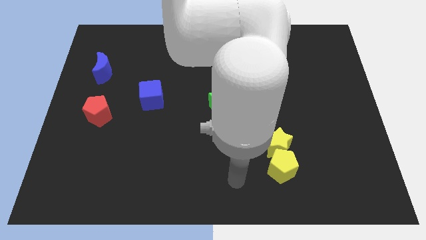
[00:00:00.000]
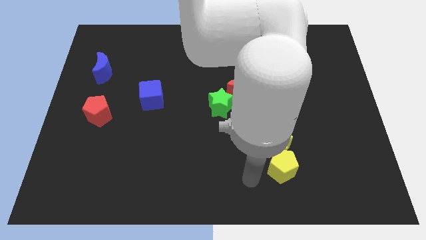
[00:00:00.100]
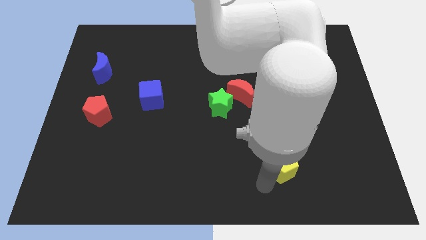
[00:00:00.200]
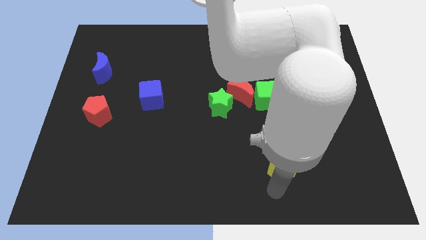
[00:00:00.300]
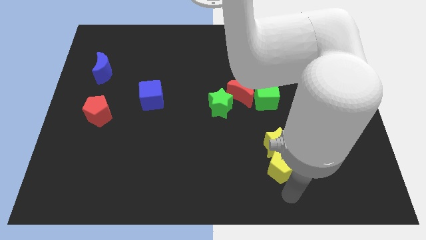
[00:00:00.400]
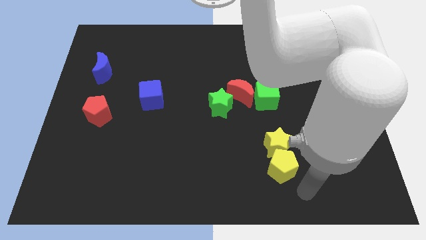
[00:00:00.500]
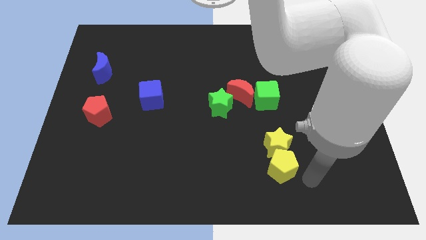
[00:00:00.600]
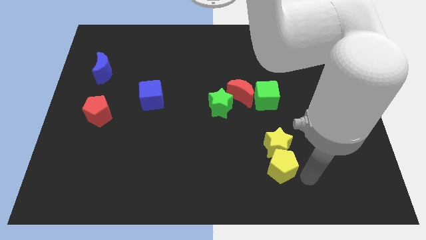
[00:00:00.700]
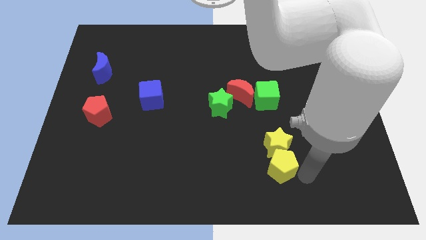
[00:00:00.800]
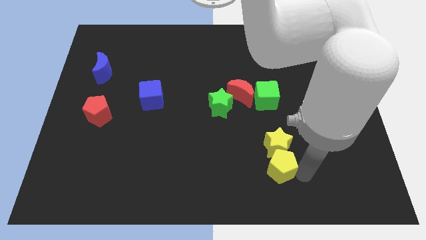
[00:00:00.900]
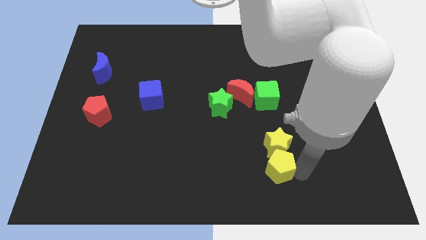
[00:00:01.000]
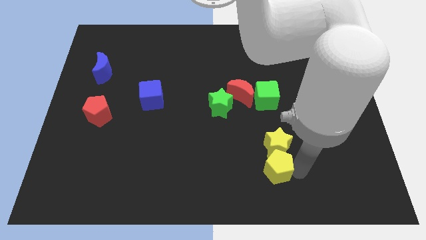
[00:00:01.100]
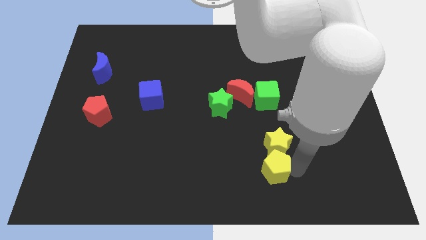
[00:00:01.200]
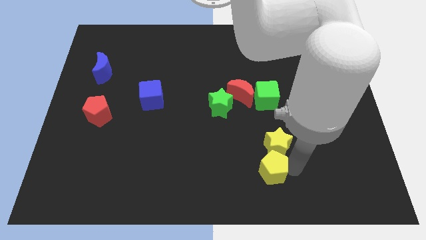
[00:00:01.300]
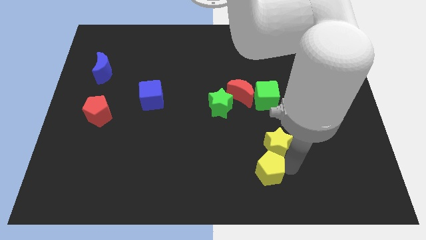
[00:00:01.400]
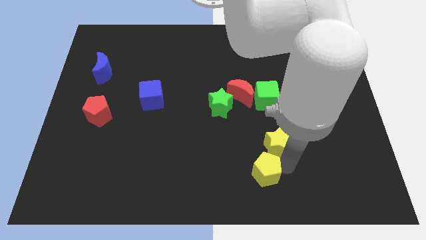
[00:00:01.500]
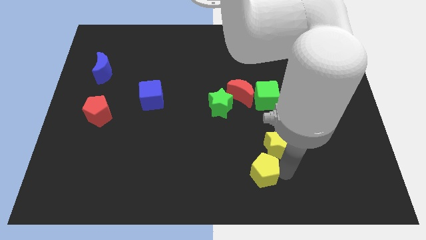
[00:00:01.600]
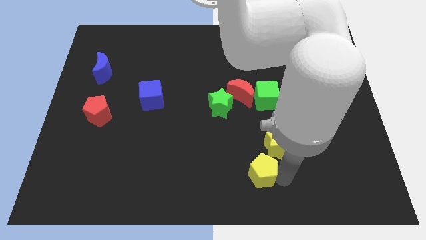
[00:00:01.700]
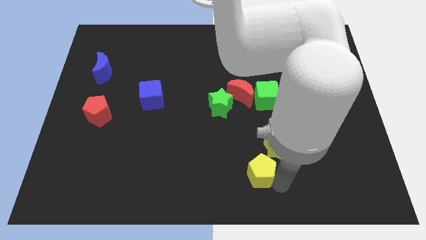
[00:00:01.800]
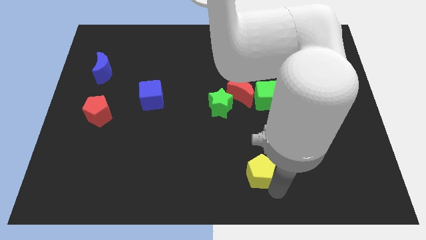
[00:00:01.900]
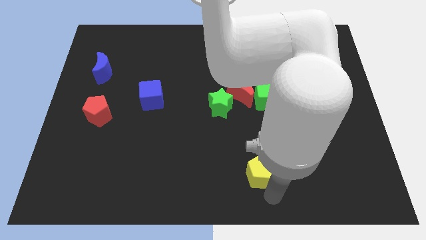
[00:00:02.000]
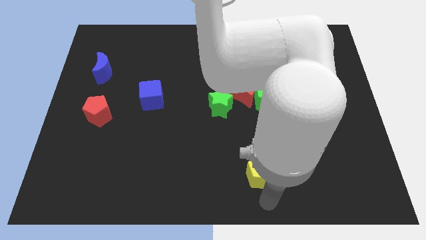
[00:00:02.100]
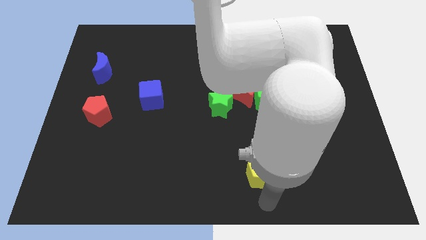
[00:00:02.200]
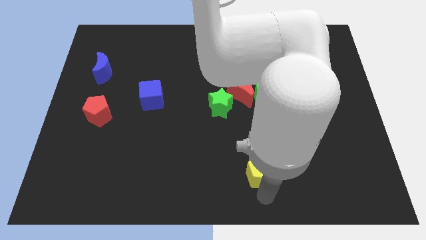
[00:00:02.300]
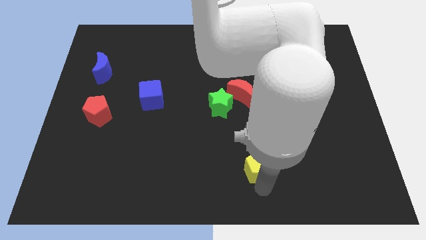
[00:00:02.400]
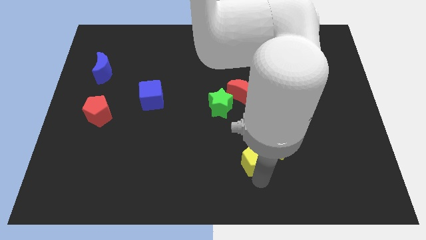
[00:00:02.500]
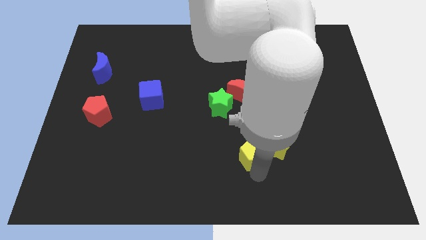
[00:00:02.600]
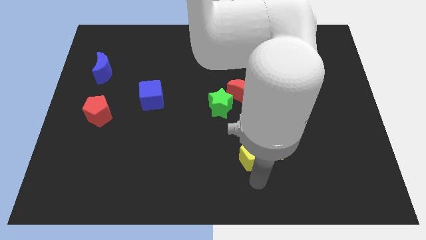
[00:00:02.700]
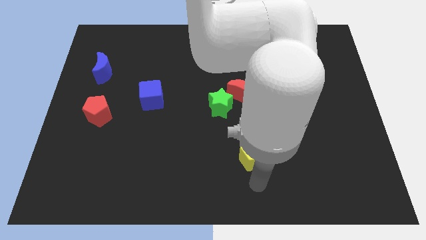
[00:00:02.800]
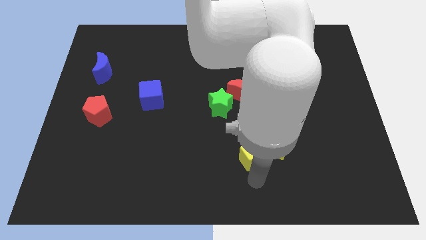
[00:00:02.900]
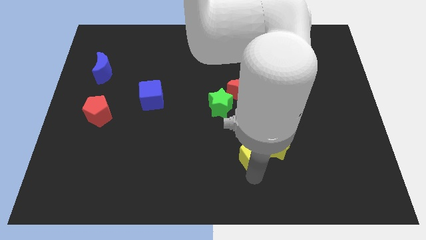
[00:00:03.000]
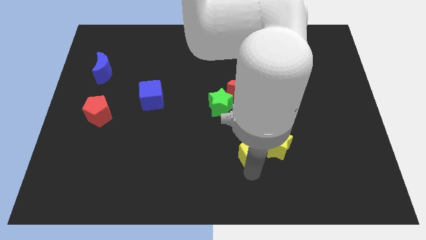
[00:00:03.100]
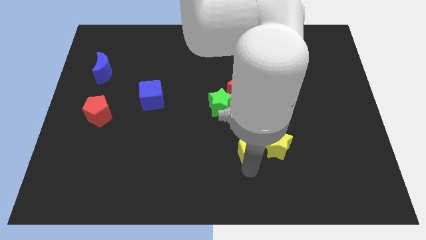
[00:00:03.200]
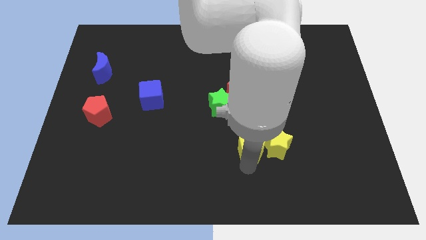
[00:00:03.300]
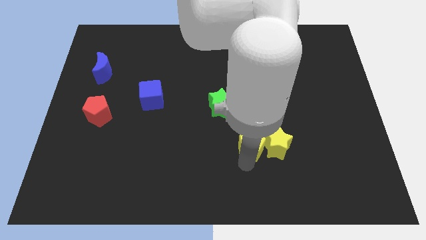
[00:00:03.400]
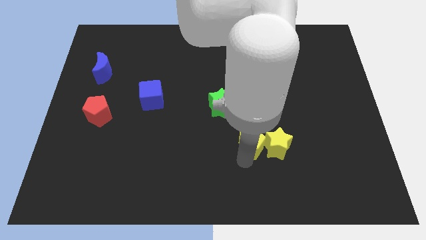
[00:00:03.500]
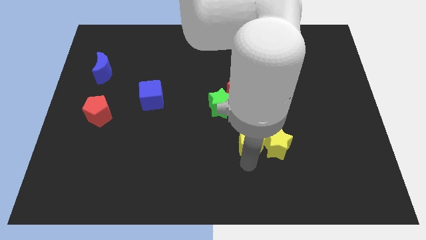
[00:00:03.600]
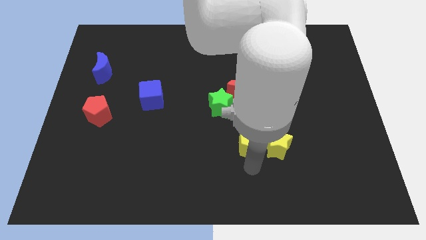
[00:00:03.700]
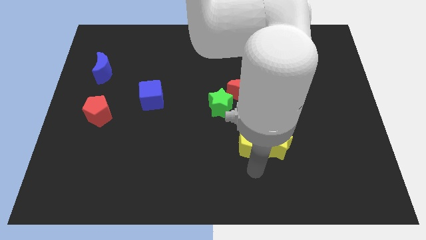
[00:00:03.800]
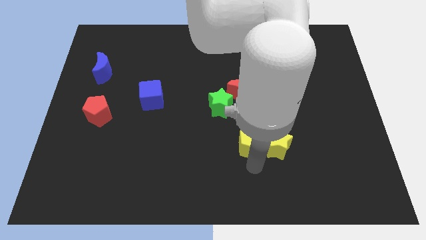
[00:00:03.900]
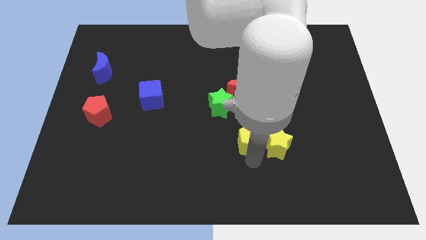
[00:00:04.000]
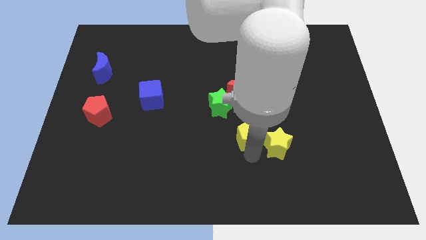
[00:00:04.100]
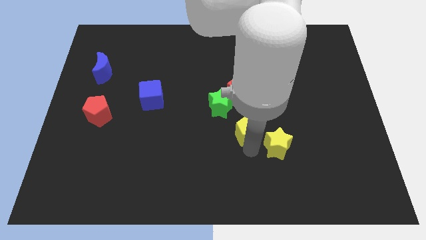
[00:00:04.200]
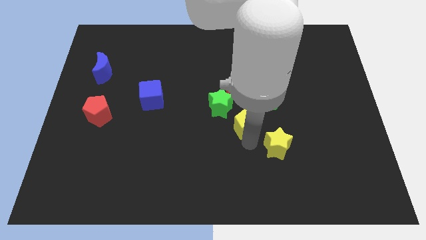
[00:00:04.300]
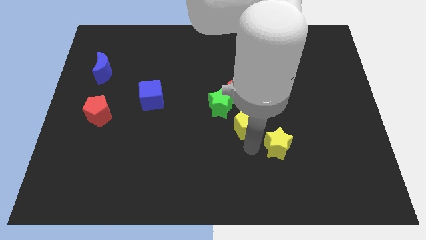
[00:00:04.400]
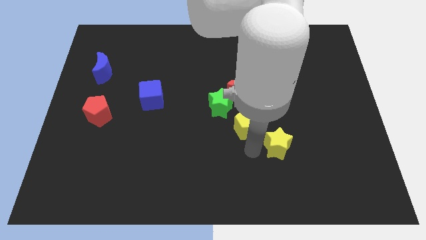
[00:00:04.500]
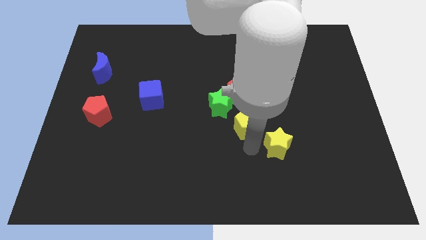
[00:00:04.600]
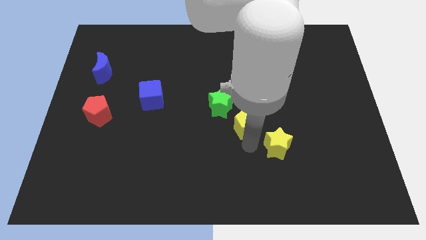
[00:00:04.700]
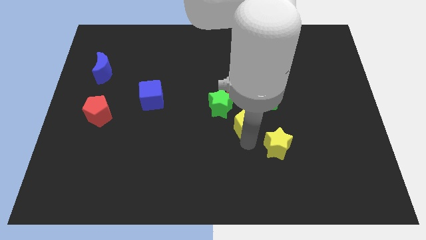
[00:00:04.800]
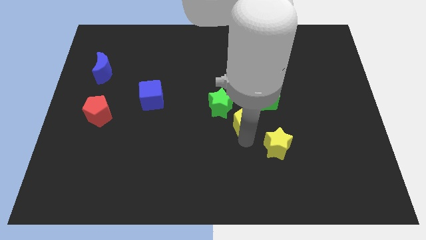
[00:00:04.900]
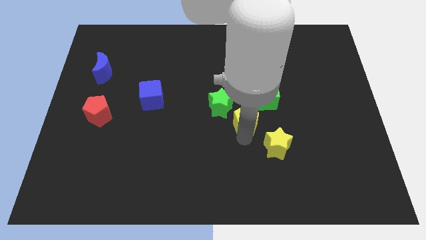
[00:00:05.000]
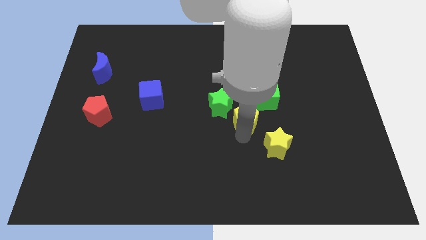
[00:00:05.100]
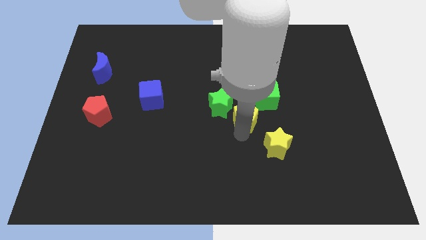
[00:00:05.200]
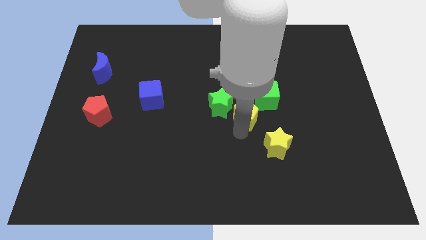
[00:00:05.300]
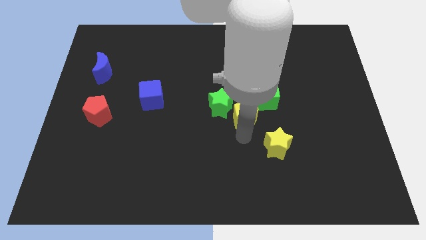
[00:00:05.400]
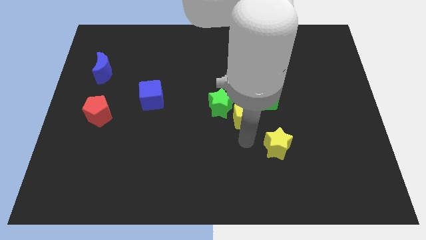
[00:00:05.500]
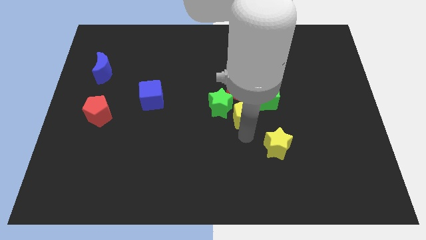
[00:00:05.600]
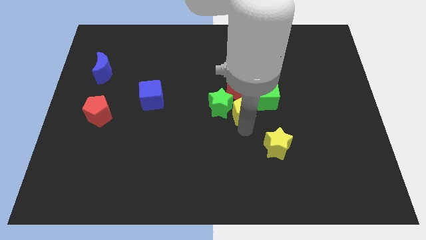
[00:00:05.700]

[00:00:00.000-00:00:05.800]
slide the yellow pentagon to the red moon

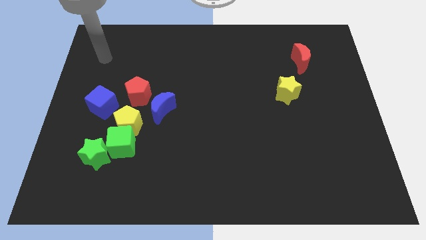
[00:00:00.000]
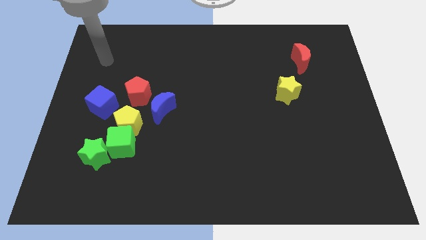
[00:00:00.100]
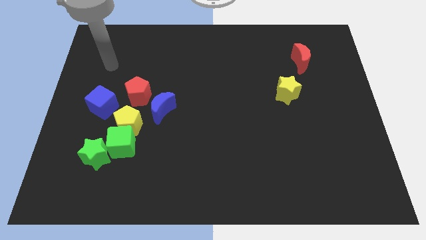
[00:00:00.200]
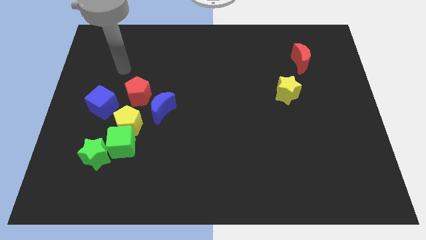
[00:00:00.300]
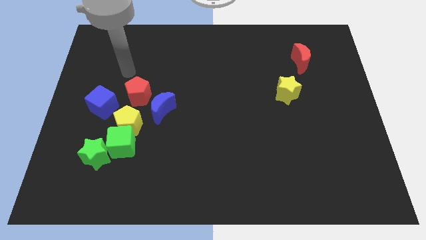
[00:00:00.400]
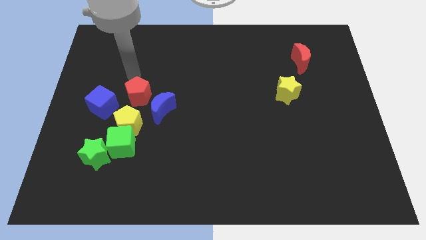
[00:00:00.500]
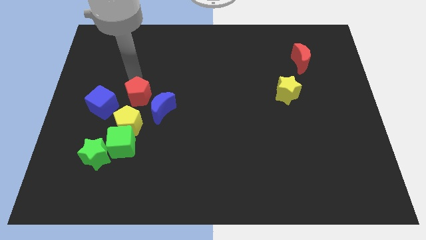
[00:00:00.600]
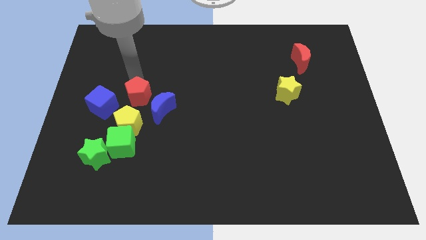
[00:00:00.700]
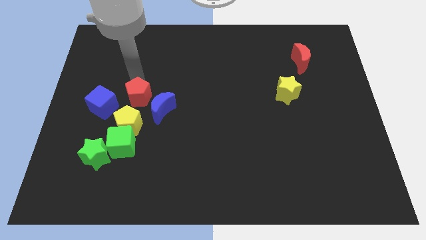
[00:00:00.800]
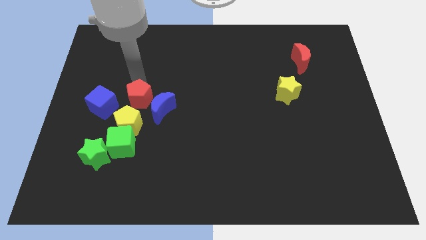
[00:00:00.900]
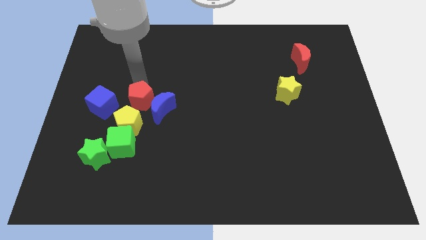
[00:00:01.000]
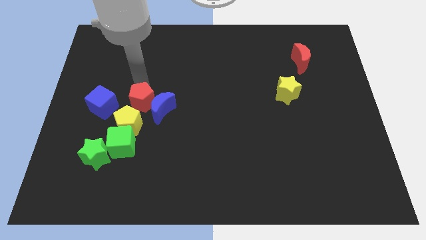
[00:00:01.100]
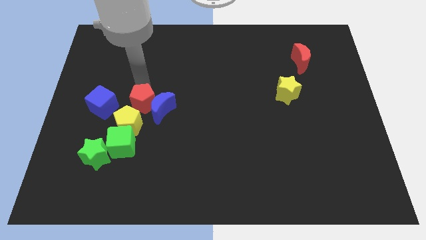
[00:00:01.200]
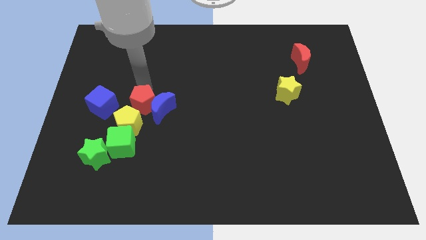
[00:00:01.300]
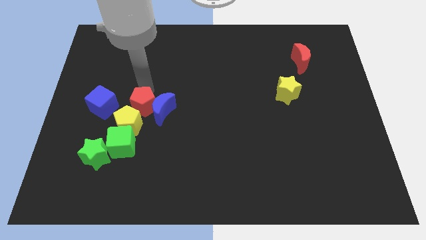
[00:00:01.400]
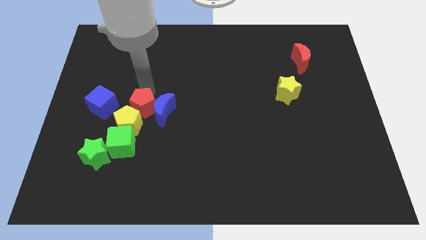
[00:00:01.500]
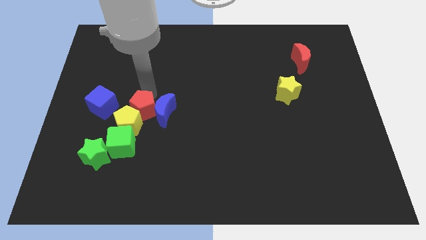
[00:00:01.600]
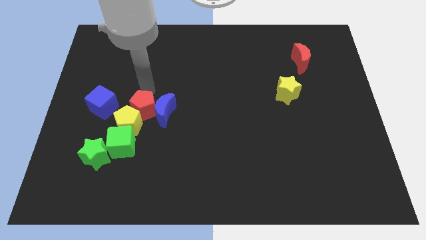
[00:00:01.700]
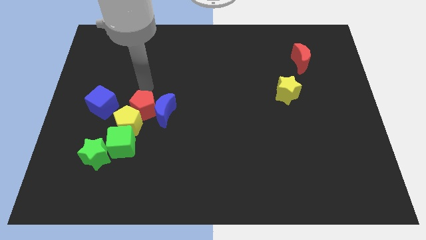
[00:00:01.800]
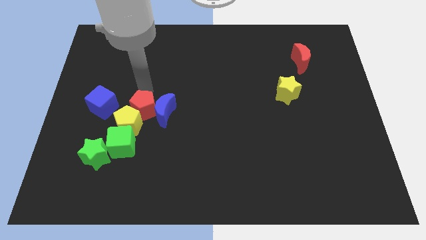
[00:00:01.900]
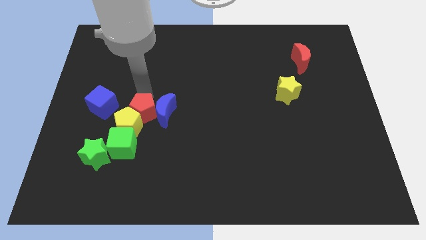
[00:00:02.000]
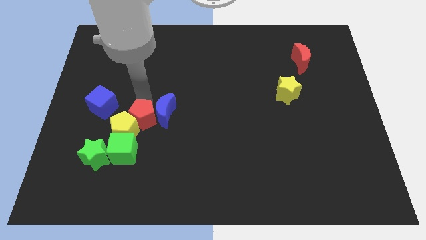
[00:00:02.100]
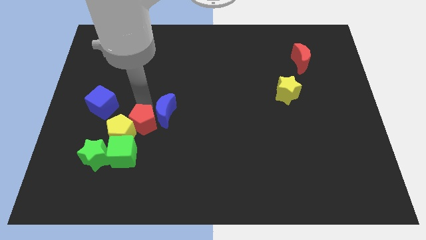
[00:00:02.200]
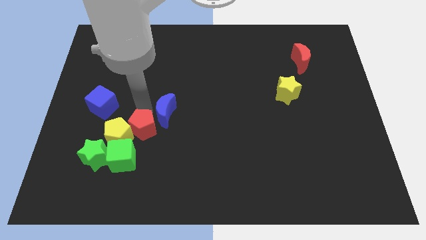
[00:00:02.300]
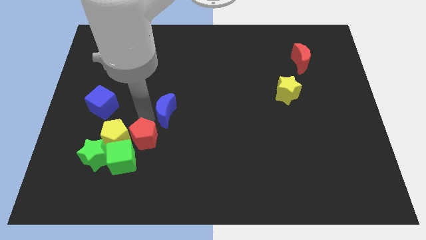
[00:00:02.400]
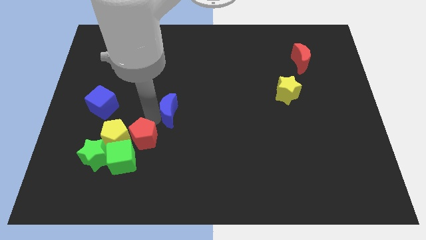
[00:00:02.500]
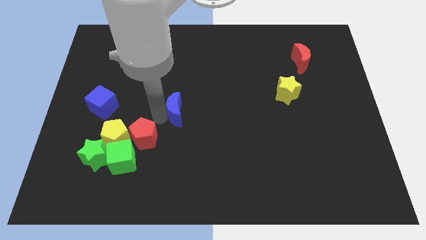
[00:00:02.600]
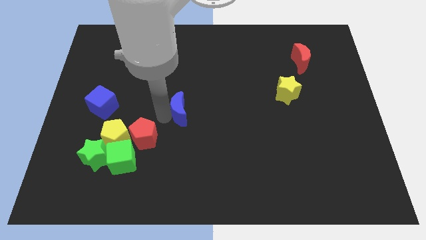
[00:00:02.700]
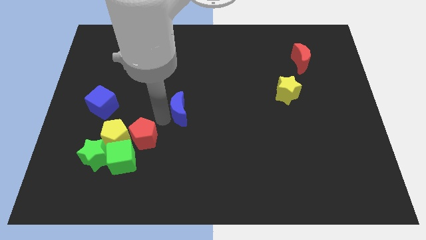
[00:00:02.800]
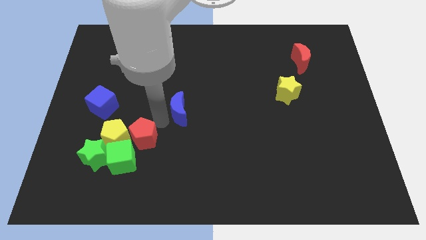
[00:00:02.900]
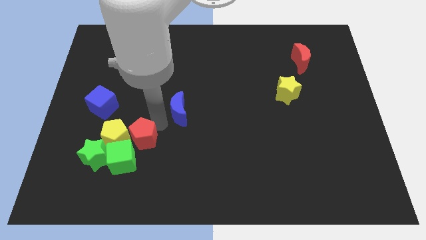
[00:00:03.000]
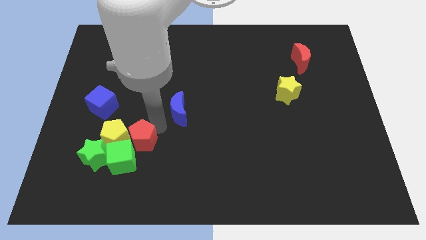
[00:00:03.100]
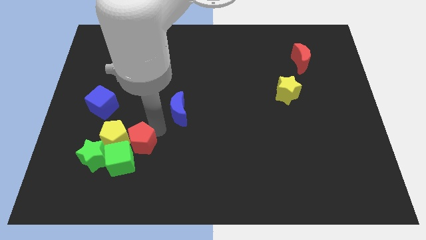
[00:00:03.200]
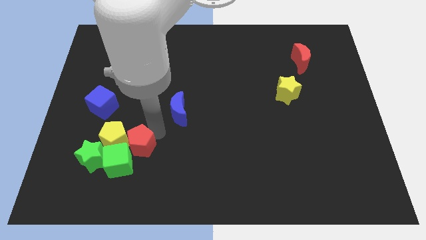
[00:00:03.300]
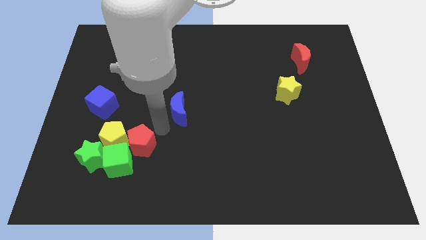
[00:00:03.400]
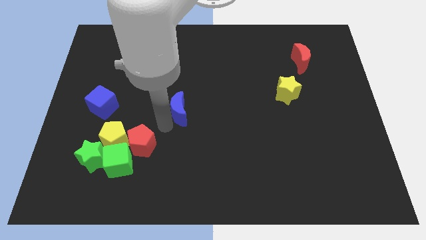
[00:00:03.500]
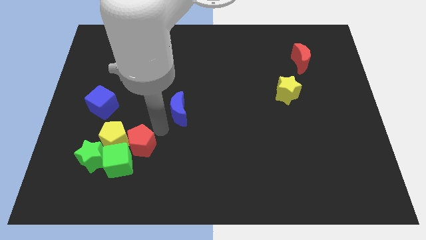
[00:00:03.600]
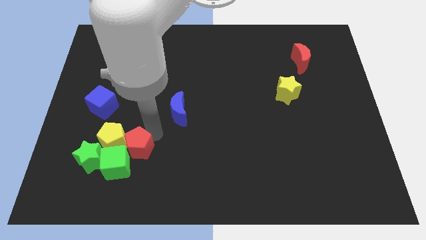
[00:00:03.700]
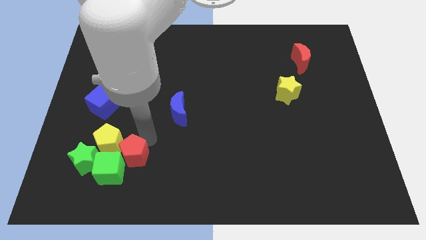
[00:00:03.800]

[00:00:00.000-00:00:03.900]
move the red pentagon to the green cube
